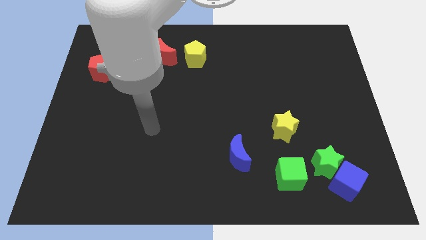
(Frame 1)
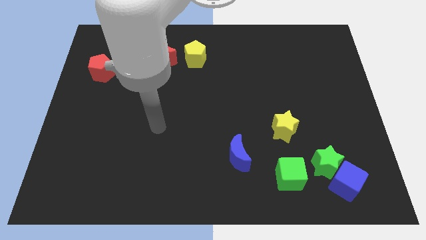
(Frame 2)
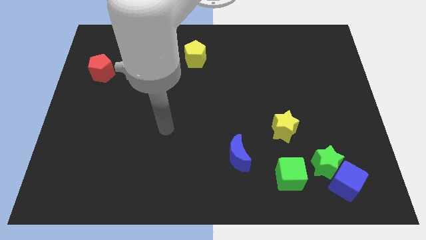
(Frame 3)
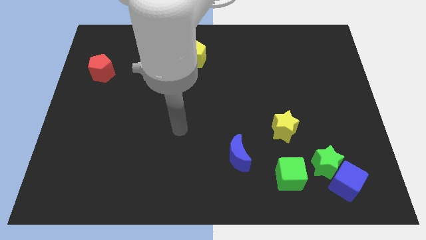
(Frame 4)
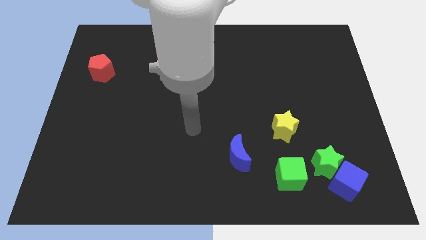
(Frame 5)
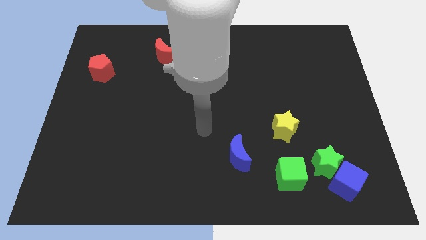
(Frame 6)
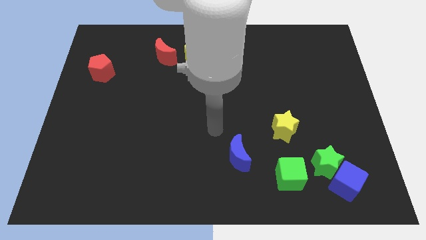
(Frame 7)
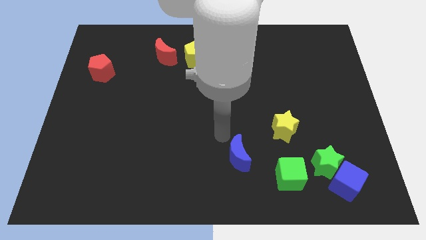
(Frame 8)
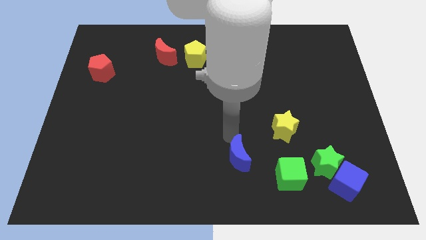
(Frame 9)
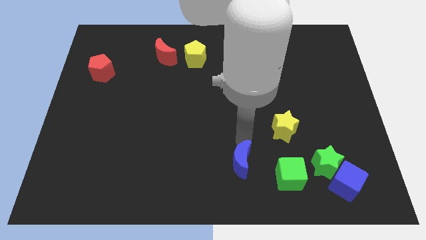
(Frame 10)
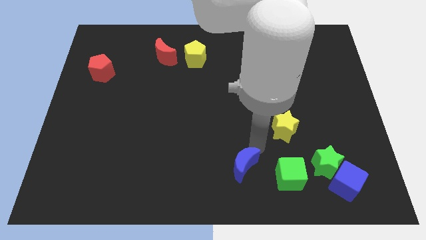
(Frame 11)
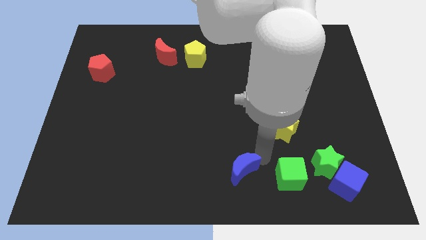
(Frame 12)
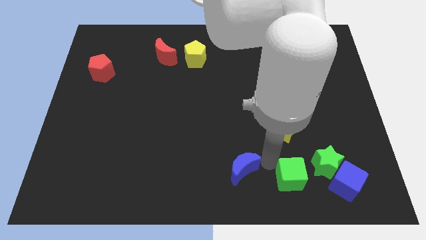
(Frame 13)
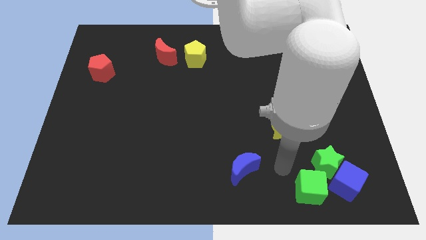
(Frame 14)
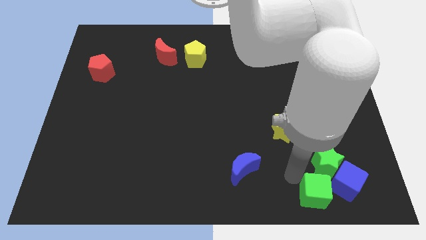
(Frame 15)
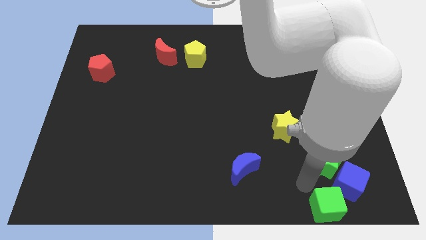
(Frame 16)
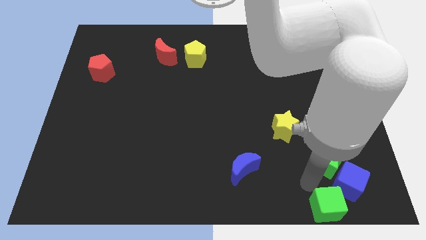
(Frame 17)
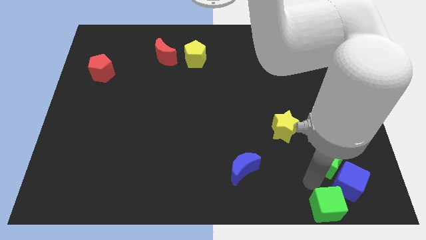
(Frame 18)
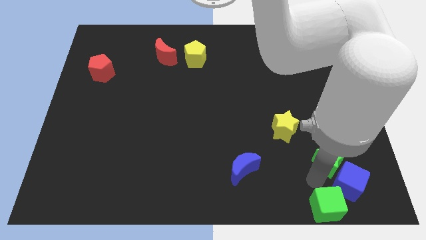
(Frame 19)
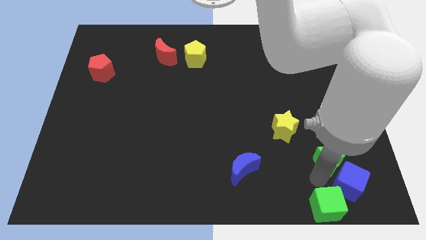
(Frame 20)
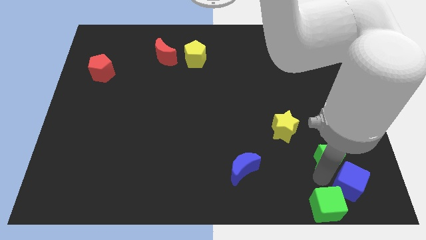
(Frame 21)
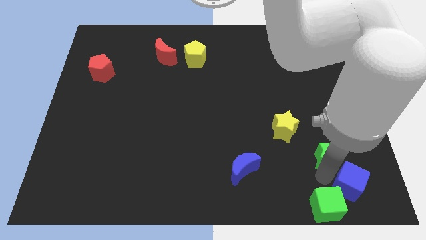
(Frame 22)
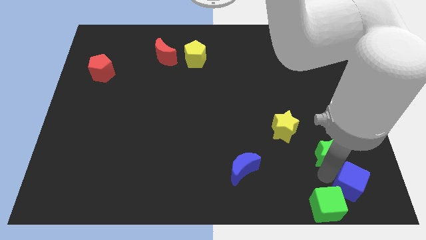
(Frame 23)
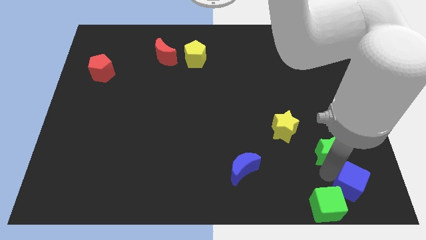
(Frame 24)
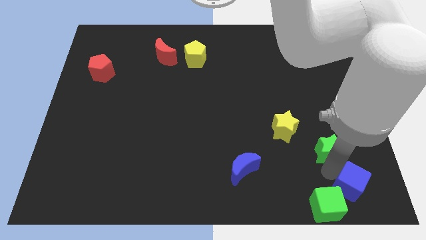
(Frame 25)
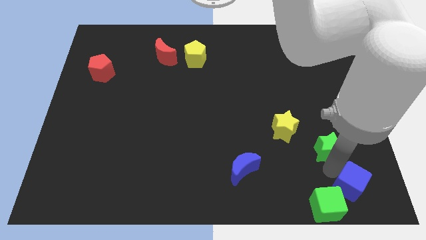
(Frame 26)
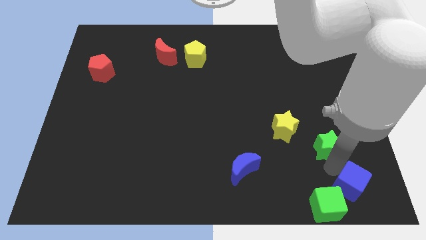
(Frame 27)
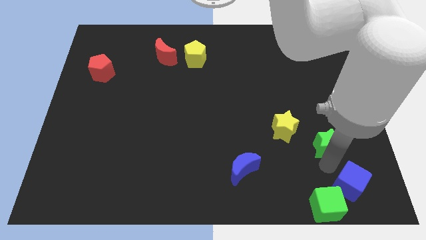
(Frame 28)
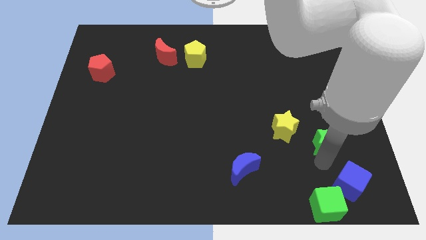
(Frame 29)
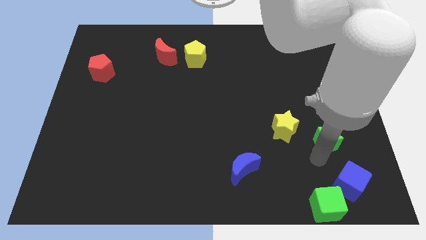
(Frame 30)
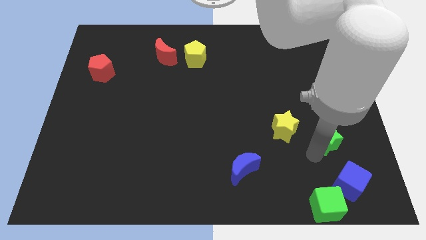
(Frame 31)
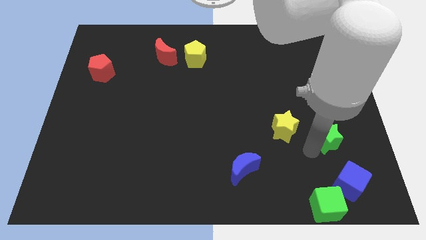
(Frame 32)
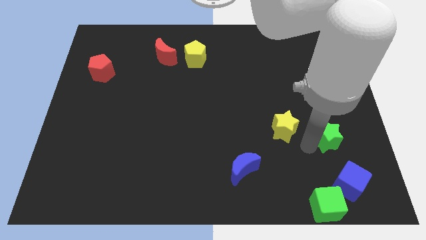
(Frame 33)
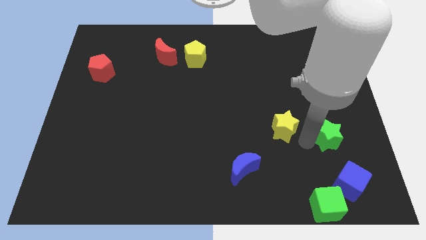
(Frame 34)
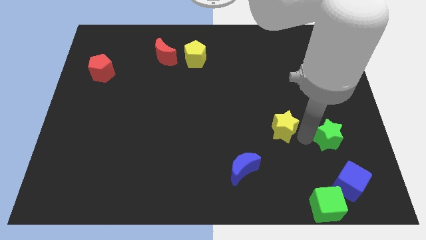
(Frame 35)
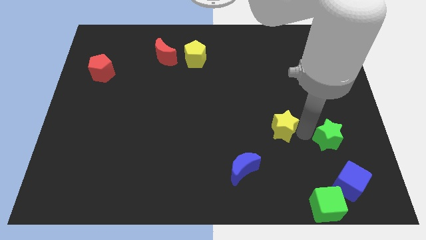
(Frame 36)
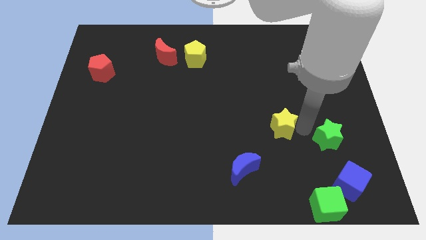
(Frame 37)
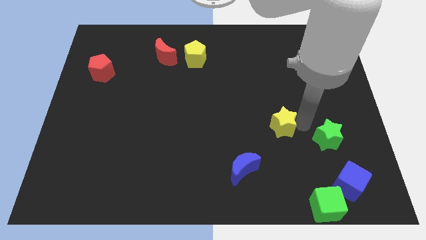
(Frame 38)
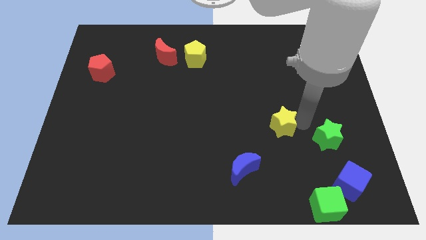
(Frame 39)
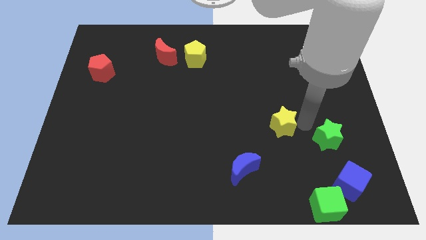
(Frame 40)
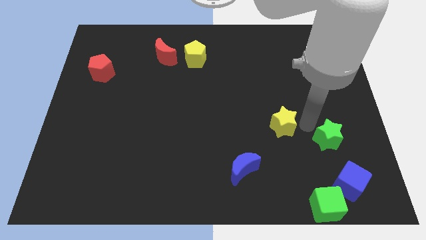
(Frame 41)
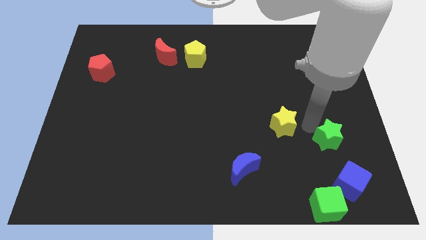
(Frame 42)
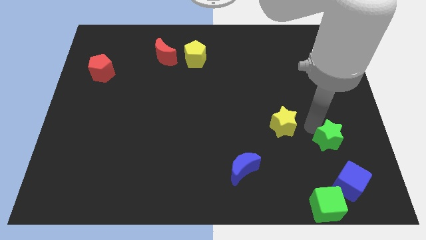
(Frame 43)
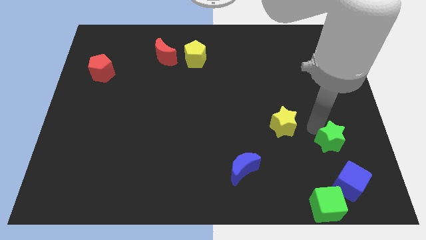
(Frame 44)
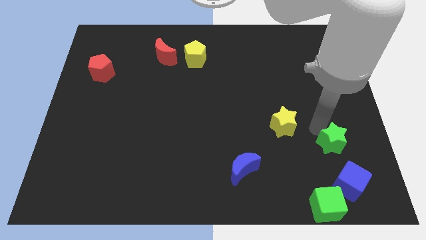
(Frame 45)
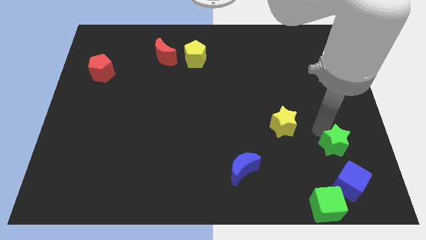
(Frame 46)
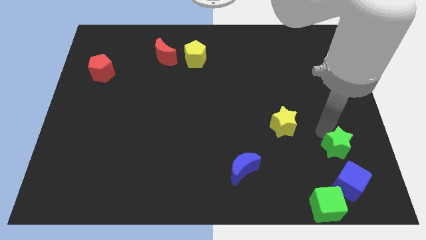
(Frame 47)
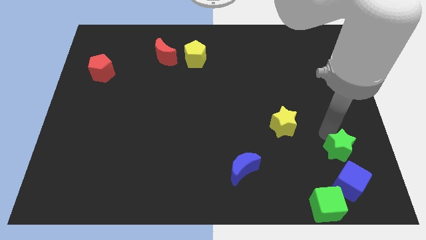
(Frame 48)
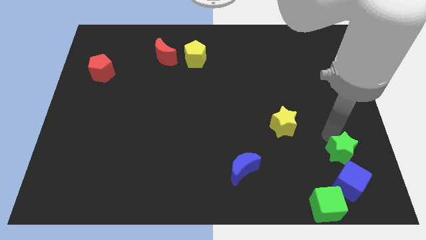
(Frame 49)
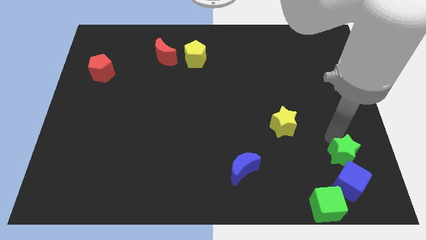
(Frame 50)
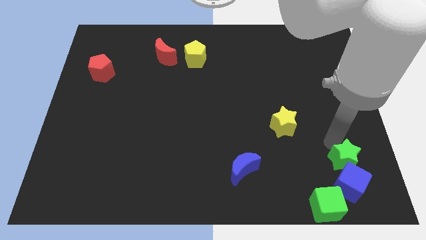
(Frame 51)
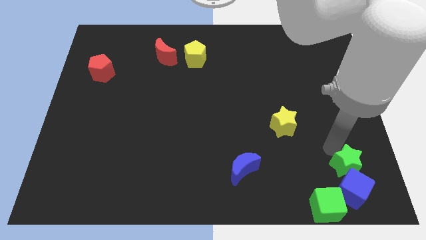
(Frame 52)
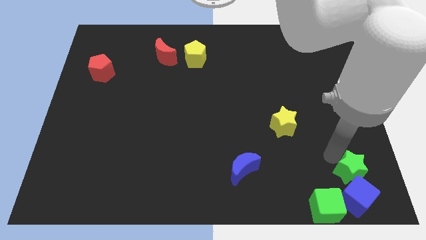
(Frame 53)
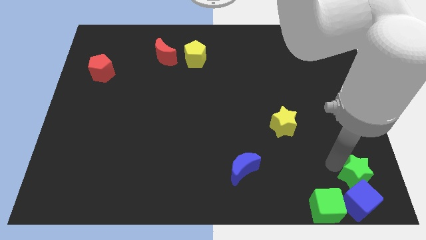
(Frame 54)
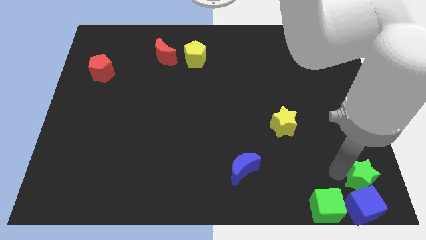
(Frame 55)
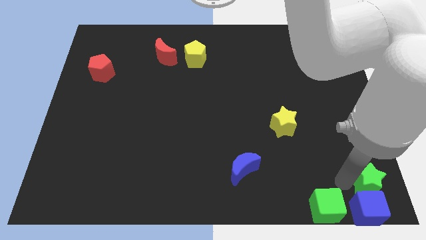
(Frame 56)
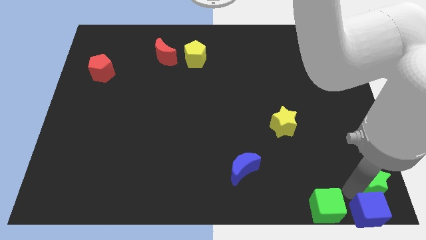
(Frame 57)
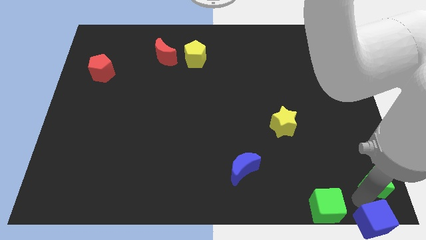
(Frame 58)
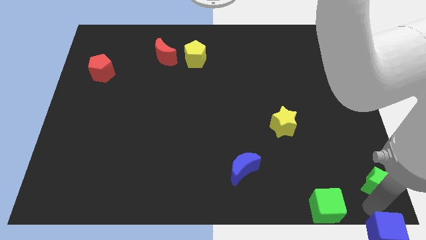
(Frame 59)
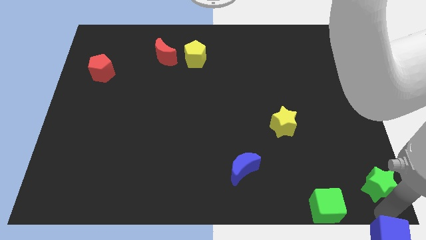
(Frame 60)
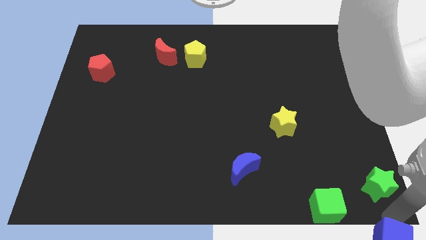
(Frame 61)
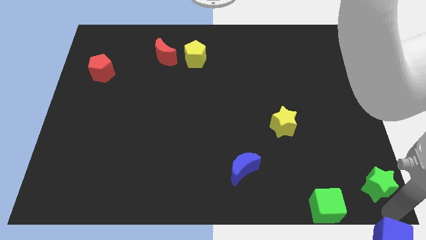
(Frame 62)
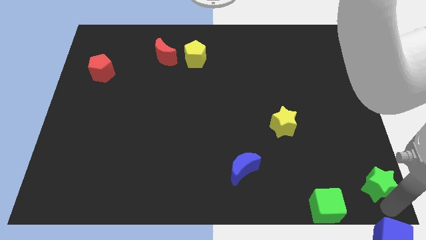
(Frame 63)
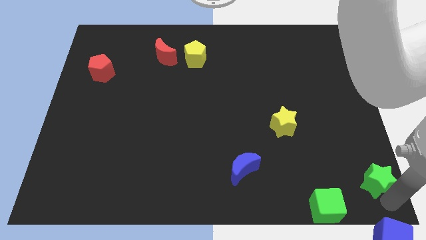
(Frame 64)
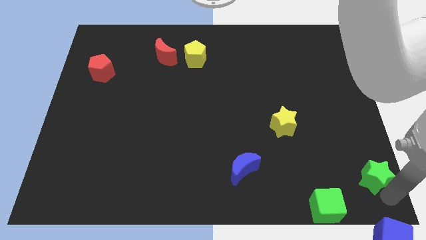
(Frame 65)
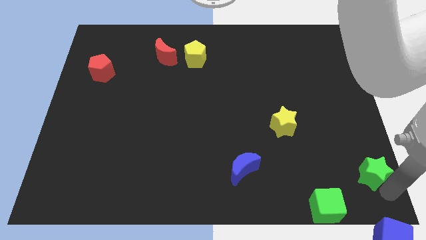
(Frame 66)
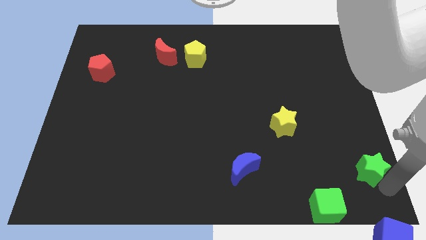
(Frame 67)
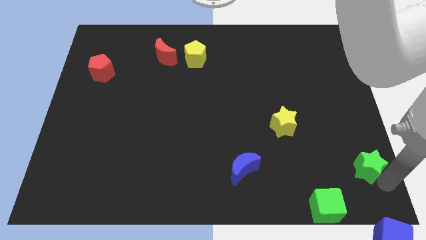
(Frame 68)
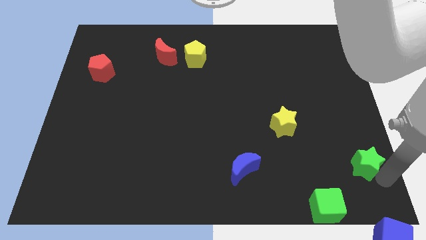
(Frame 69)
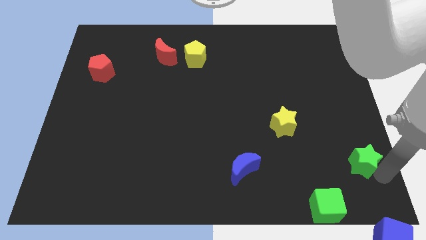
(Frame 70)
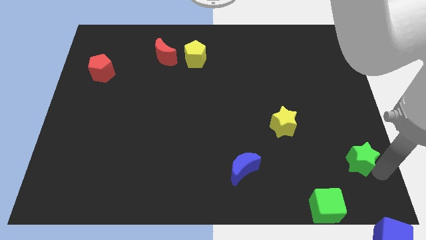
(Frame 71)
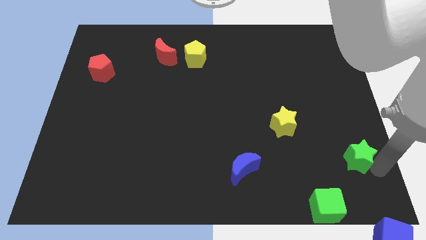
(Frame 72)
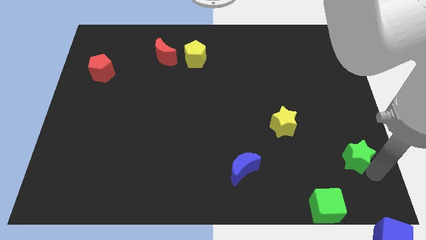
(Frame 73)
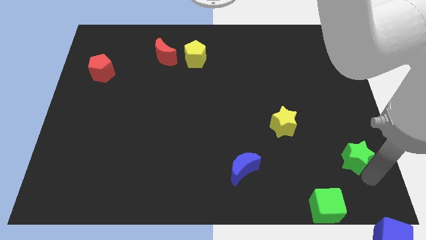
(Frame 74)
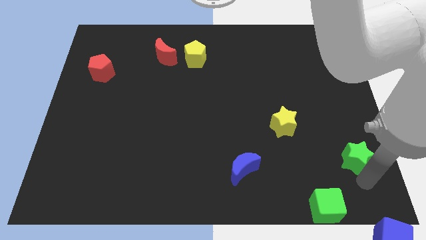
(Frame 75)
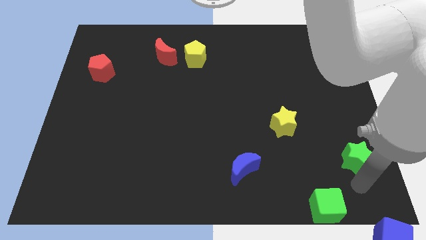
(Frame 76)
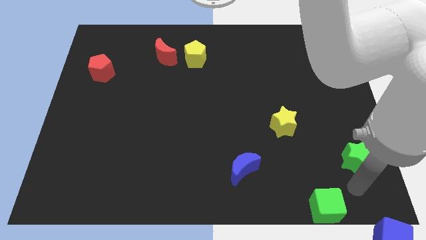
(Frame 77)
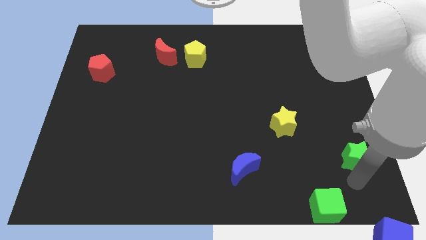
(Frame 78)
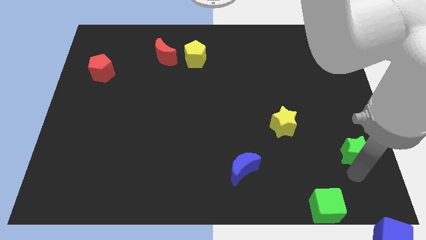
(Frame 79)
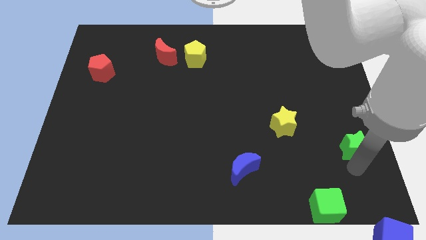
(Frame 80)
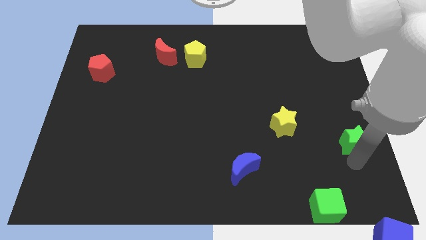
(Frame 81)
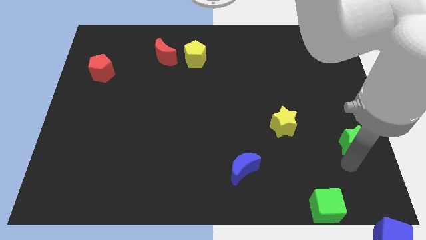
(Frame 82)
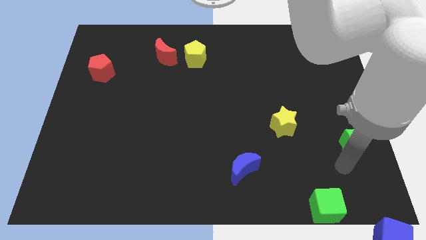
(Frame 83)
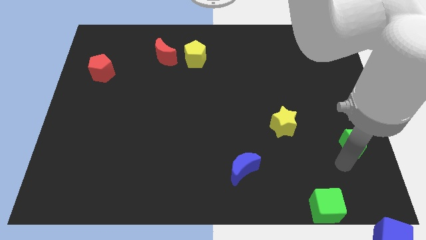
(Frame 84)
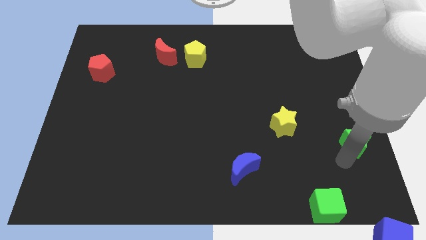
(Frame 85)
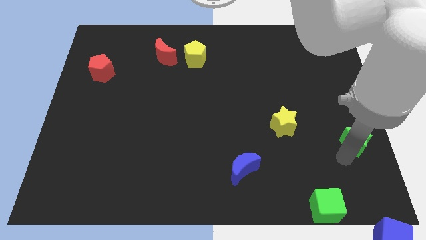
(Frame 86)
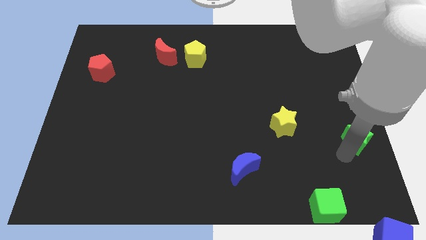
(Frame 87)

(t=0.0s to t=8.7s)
put the green star to the right side
